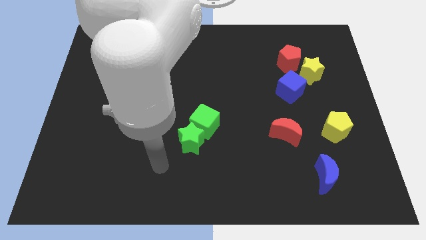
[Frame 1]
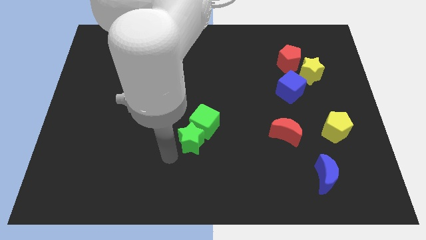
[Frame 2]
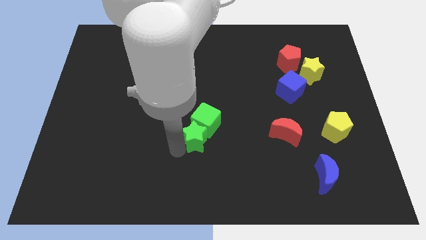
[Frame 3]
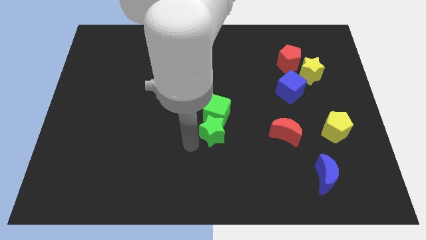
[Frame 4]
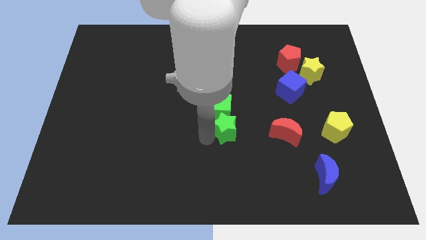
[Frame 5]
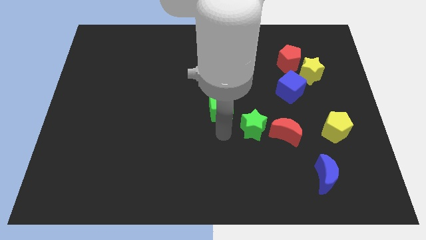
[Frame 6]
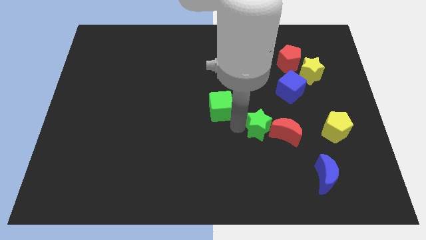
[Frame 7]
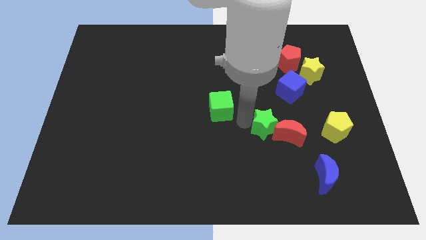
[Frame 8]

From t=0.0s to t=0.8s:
move the green cube away from the green star

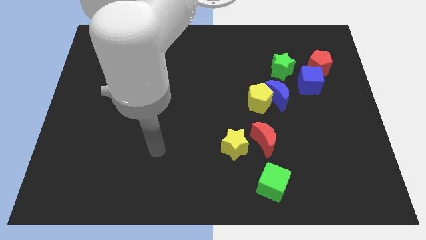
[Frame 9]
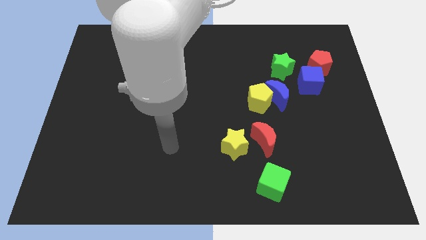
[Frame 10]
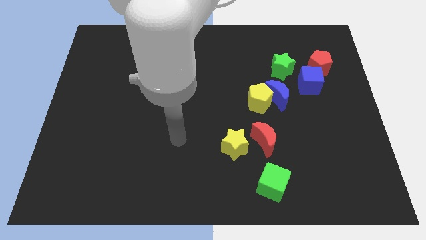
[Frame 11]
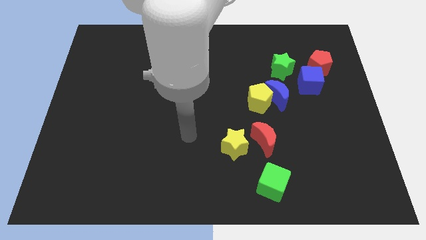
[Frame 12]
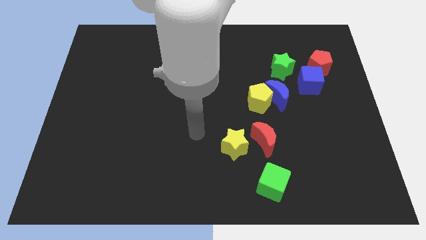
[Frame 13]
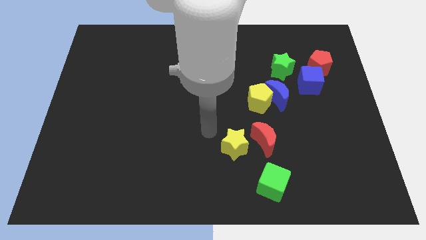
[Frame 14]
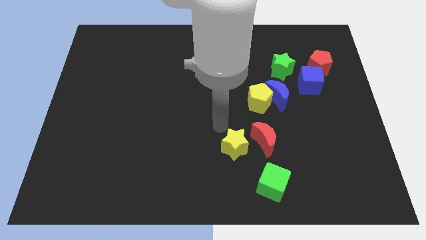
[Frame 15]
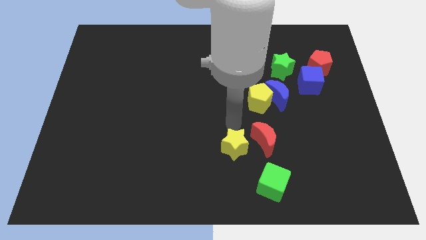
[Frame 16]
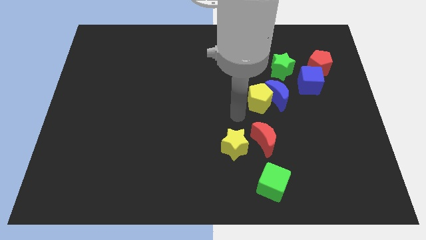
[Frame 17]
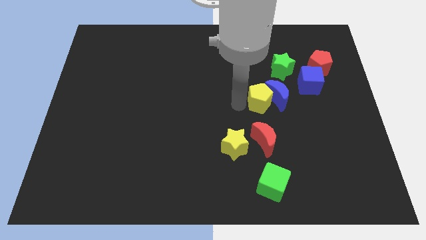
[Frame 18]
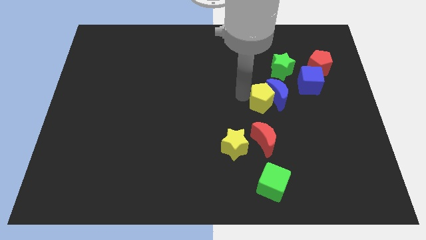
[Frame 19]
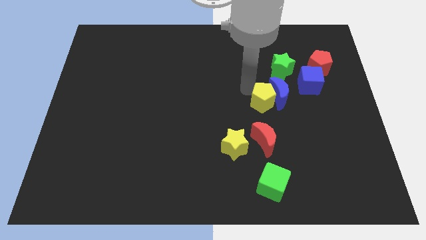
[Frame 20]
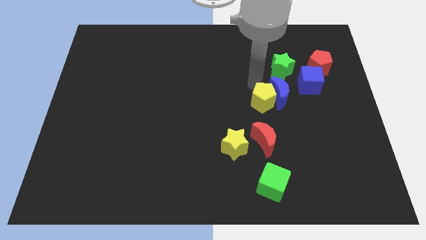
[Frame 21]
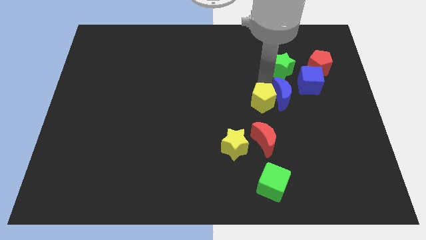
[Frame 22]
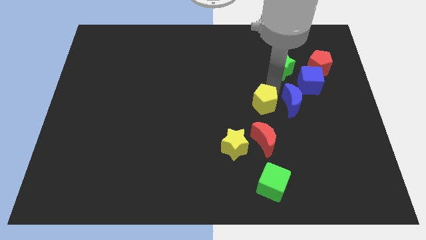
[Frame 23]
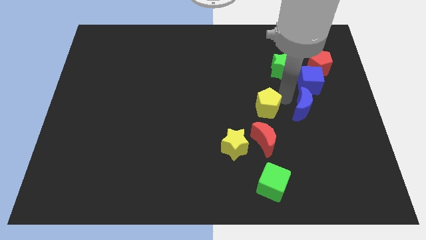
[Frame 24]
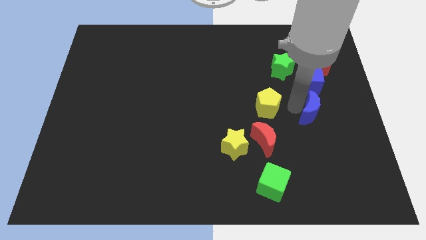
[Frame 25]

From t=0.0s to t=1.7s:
pull the yellow pentagon apart from the blue moon

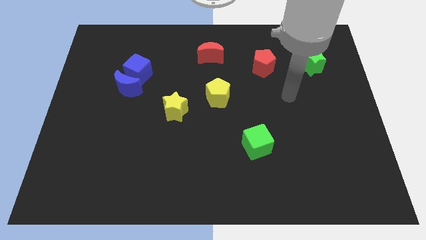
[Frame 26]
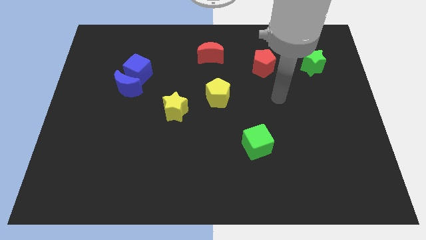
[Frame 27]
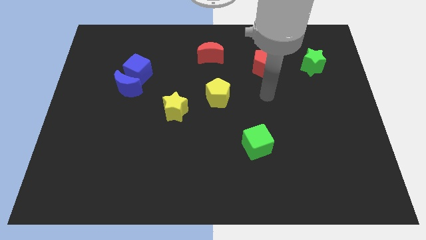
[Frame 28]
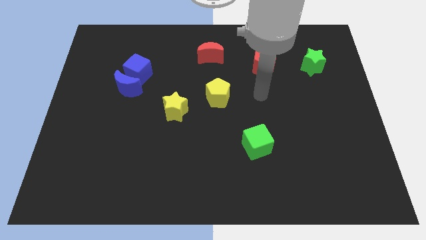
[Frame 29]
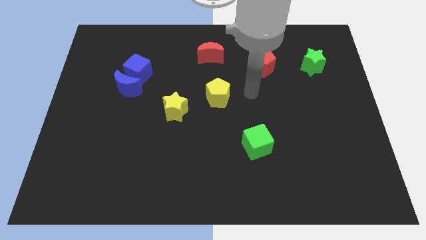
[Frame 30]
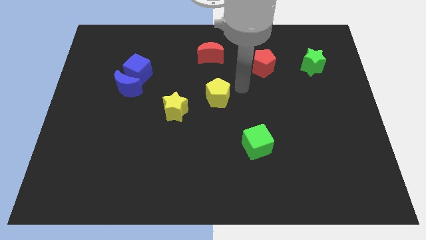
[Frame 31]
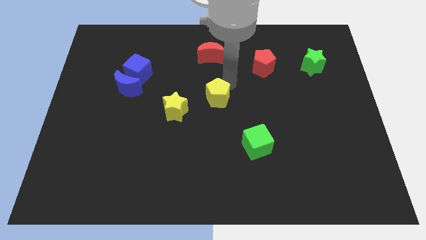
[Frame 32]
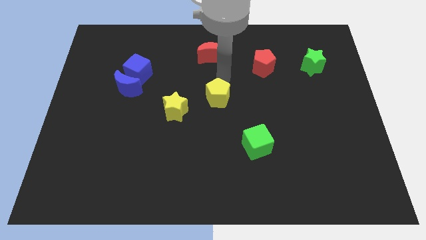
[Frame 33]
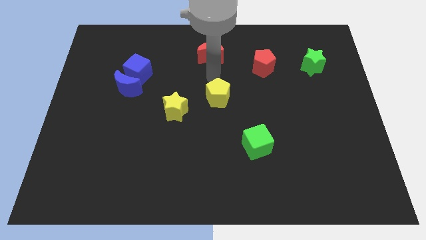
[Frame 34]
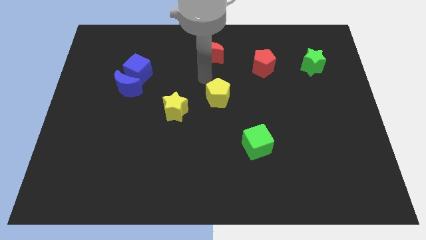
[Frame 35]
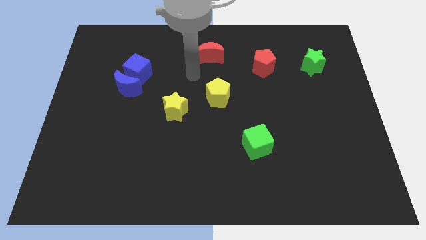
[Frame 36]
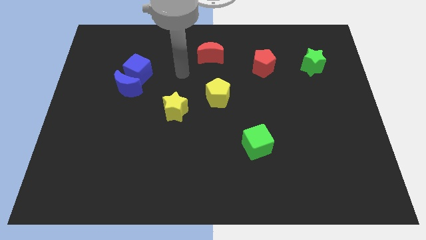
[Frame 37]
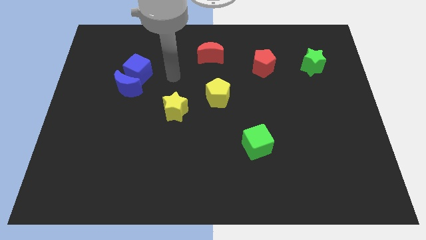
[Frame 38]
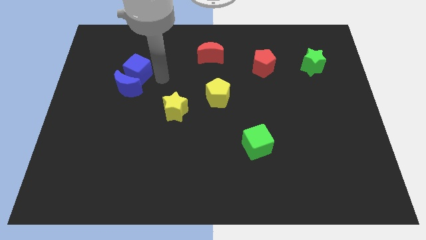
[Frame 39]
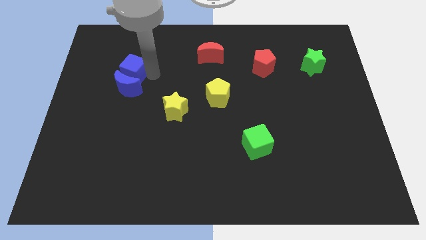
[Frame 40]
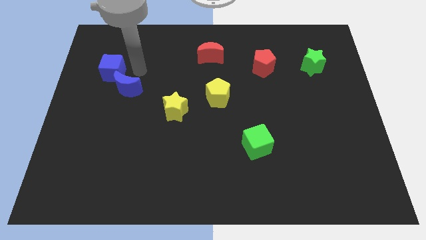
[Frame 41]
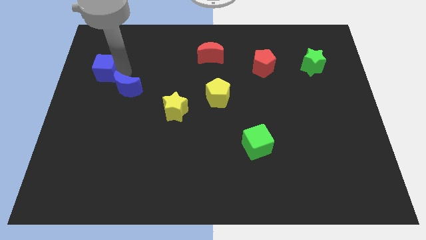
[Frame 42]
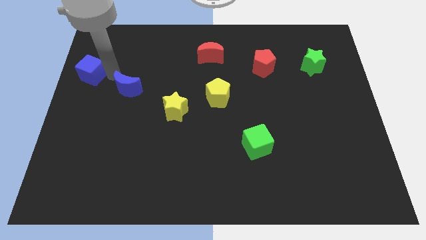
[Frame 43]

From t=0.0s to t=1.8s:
move the blue moon away from the blue cube

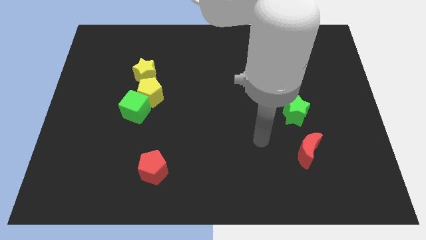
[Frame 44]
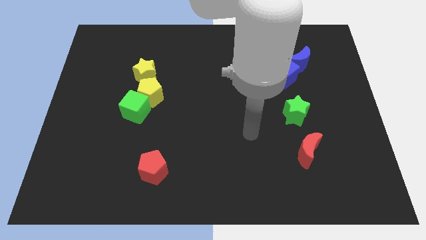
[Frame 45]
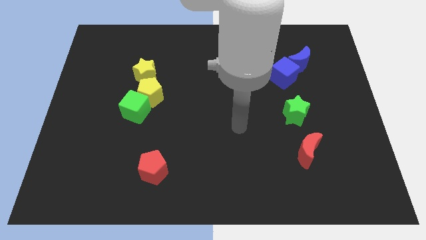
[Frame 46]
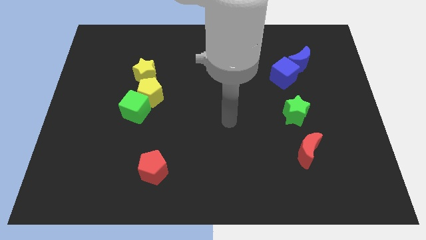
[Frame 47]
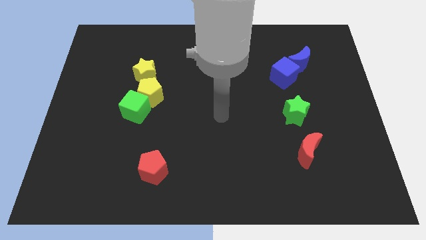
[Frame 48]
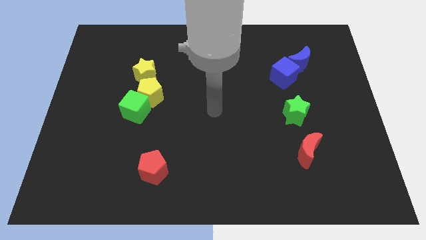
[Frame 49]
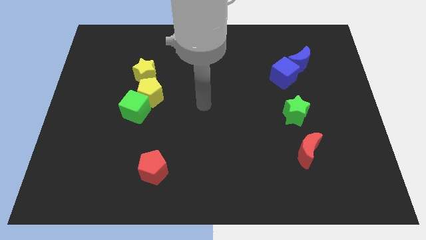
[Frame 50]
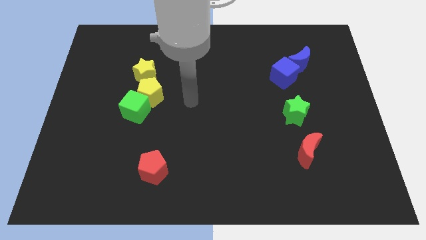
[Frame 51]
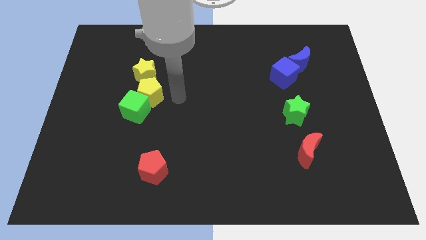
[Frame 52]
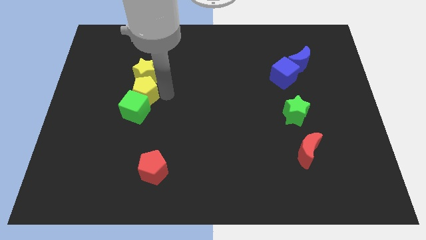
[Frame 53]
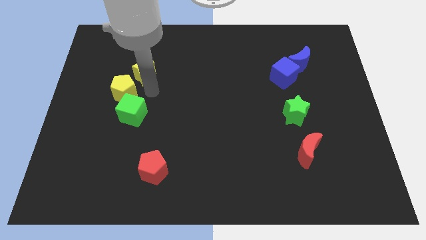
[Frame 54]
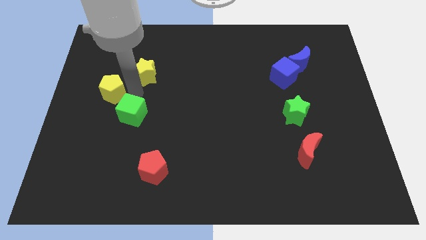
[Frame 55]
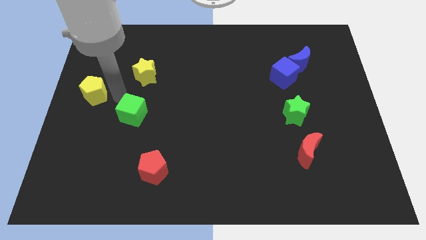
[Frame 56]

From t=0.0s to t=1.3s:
move the green cube away from the yellow pentagon

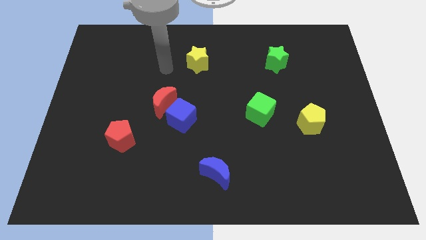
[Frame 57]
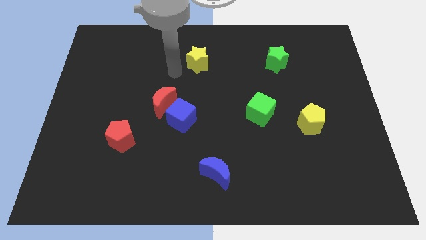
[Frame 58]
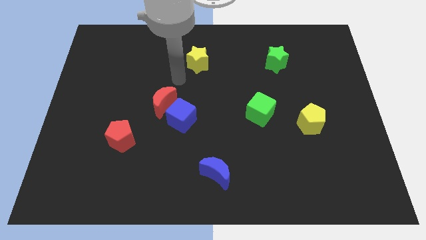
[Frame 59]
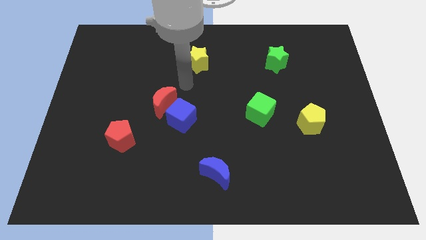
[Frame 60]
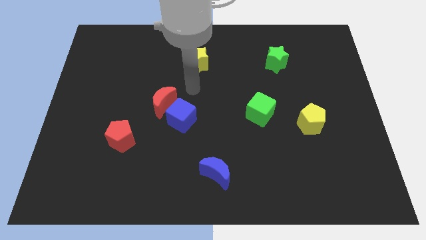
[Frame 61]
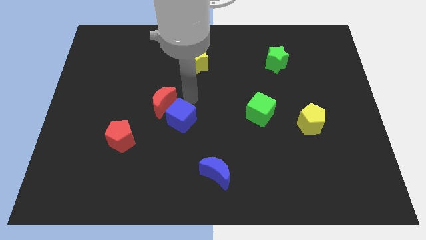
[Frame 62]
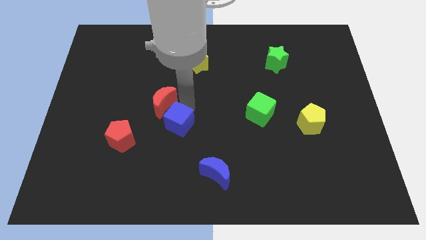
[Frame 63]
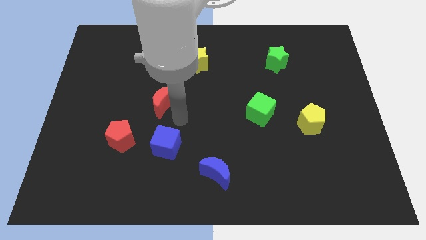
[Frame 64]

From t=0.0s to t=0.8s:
pull the red moon apart from the blue cube

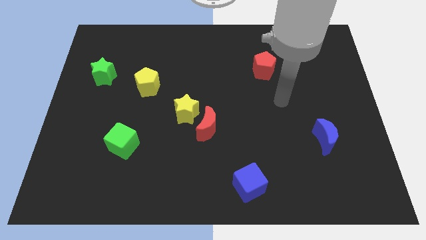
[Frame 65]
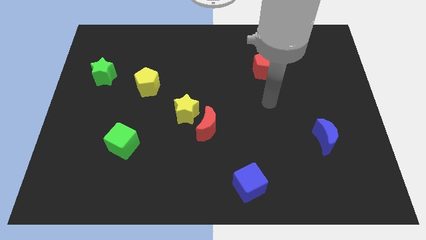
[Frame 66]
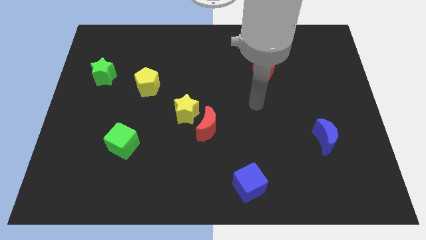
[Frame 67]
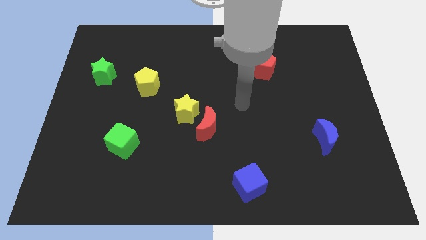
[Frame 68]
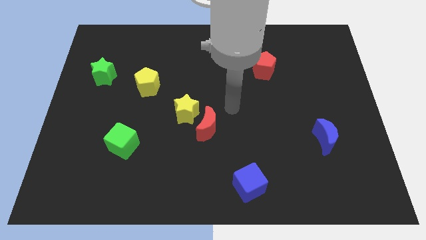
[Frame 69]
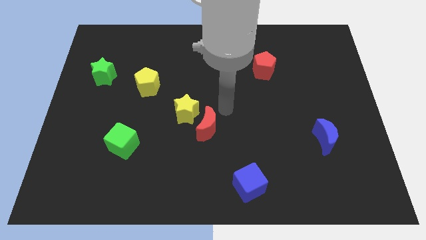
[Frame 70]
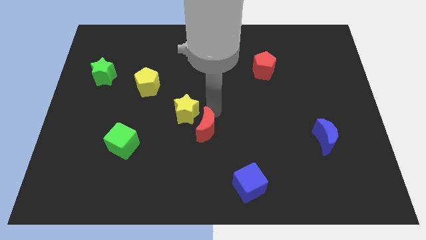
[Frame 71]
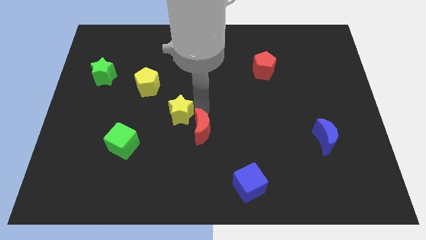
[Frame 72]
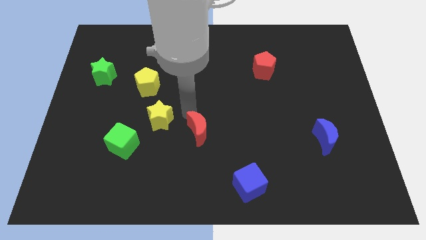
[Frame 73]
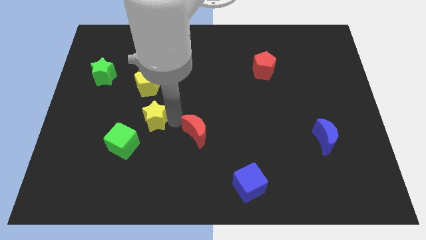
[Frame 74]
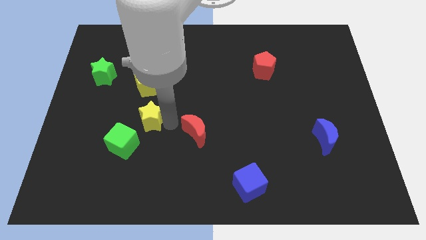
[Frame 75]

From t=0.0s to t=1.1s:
move the red moon away from the yellow star

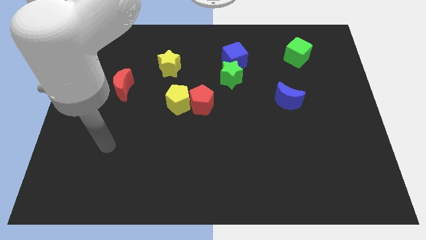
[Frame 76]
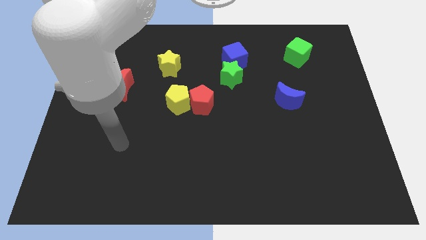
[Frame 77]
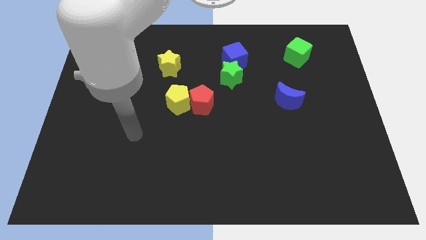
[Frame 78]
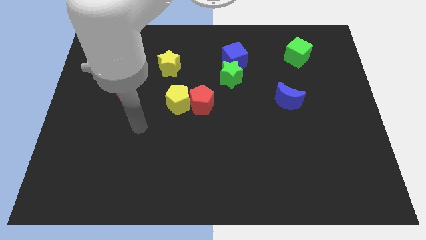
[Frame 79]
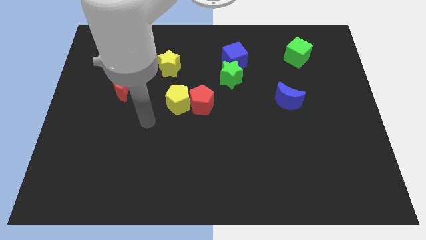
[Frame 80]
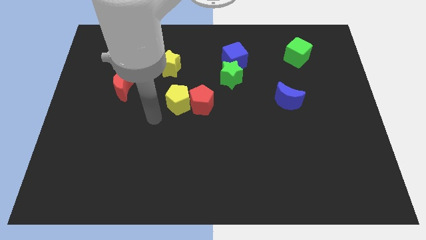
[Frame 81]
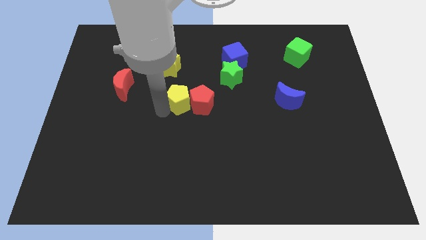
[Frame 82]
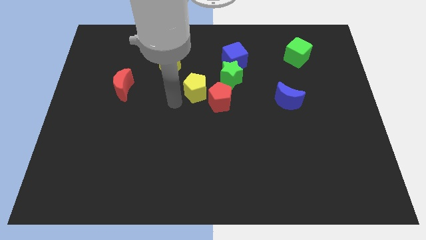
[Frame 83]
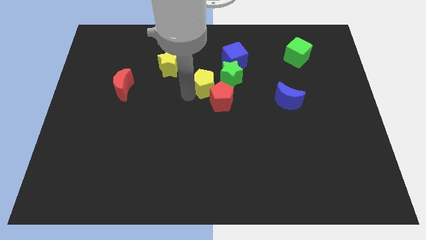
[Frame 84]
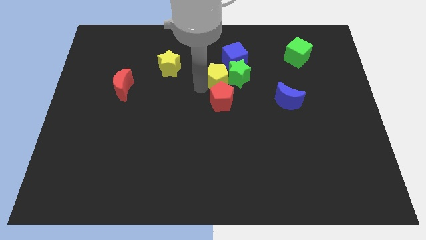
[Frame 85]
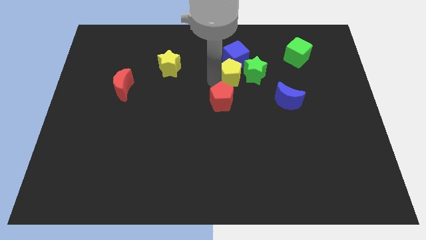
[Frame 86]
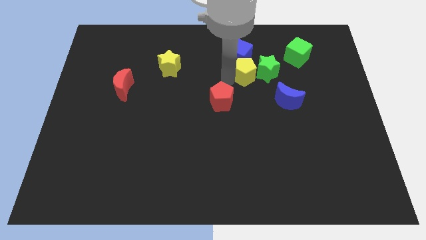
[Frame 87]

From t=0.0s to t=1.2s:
separate the red pentagon from the yellow pentagon

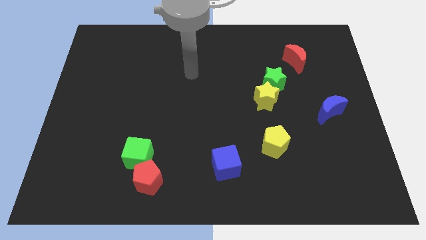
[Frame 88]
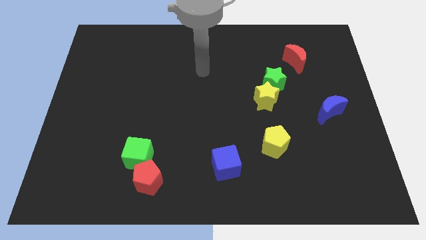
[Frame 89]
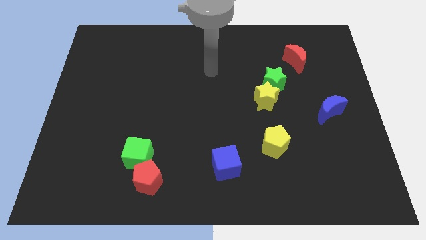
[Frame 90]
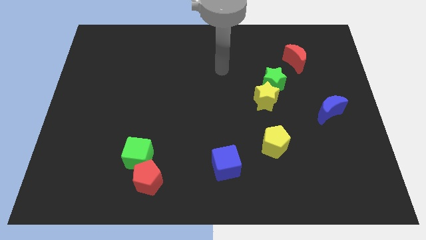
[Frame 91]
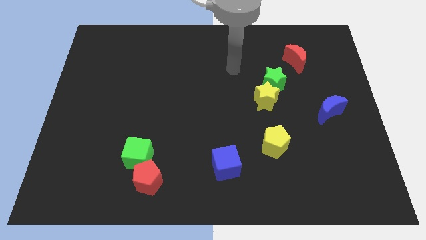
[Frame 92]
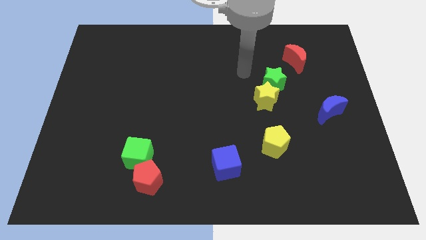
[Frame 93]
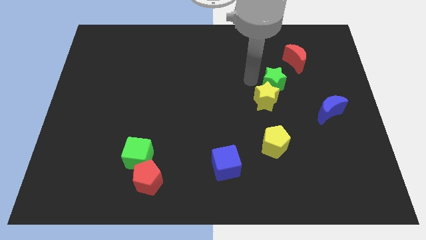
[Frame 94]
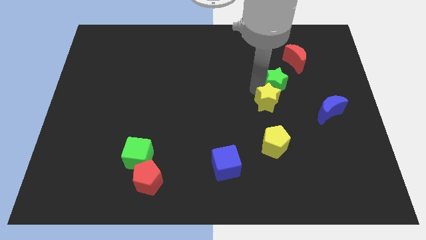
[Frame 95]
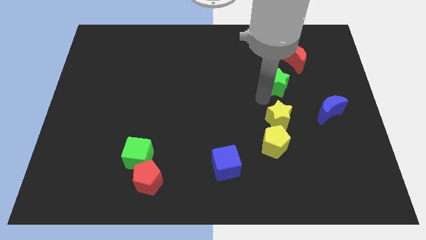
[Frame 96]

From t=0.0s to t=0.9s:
separate the green star from the yellow star
